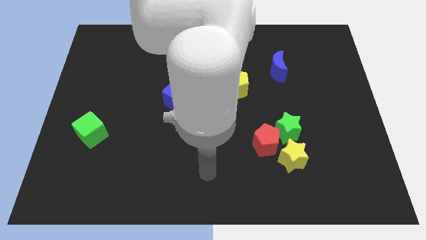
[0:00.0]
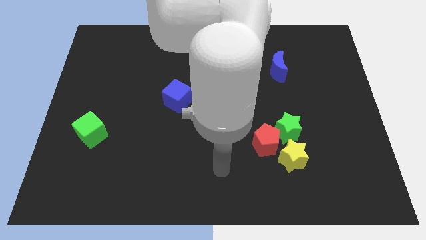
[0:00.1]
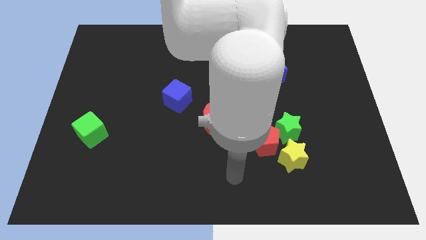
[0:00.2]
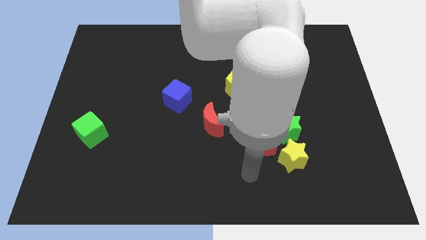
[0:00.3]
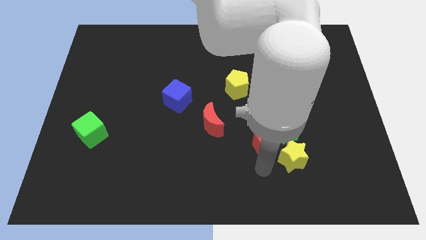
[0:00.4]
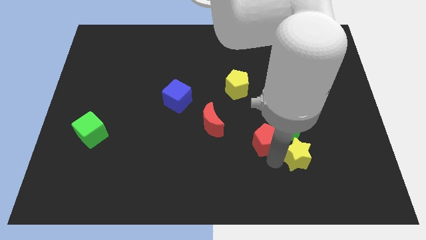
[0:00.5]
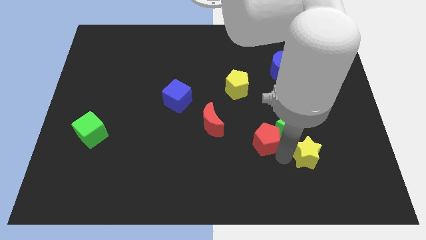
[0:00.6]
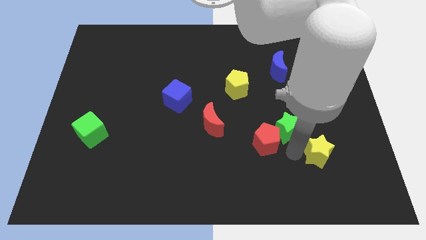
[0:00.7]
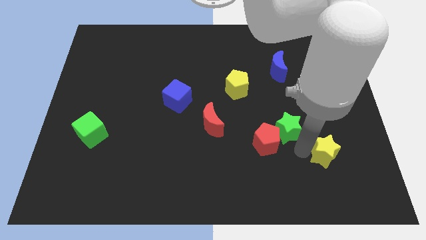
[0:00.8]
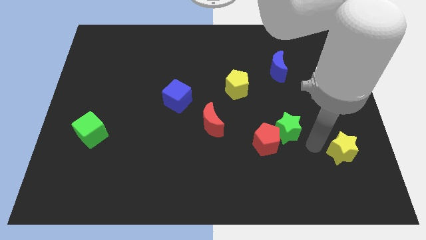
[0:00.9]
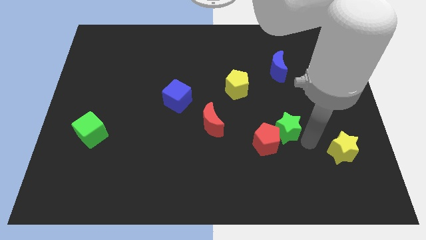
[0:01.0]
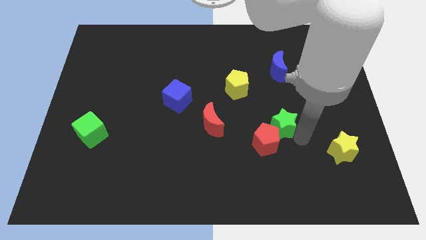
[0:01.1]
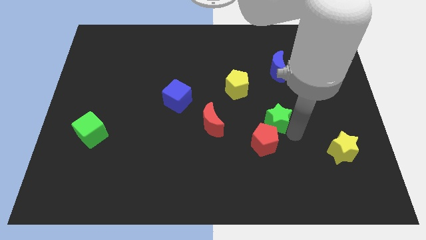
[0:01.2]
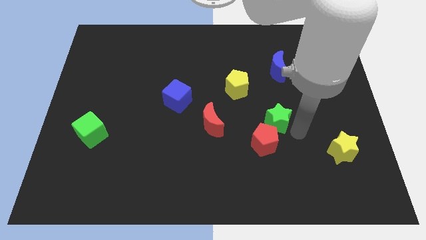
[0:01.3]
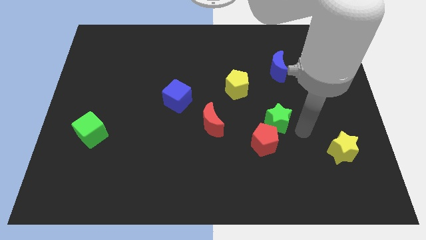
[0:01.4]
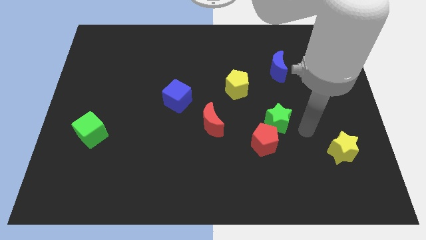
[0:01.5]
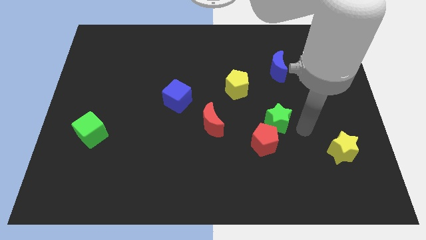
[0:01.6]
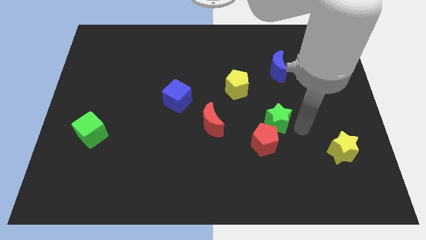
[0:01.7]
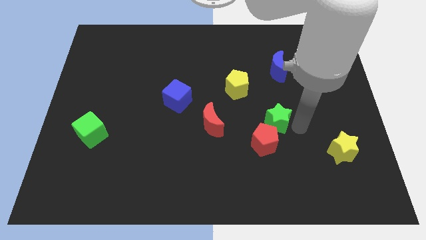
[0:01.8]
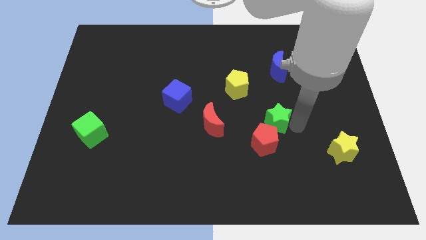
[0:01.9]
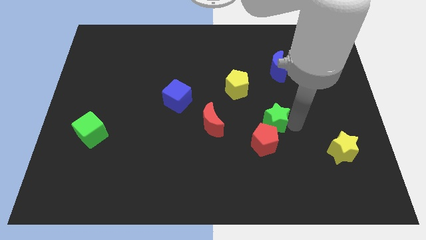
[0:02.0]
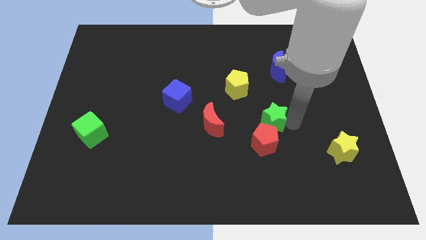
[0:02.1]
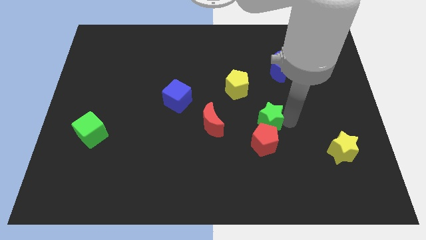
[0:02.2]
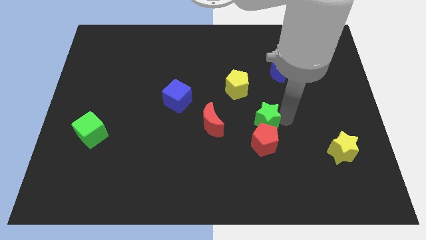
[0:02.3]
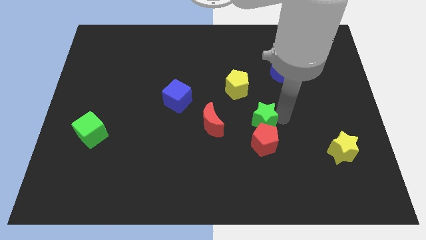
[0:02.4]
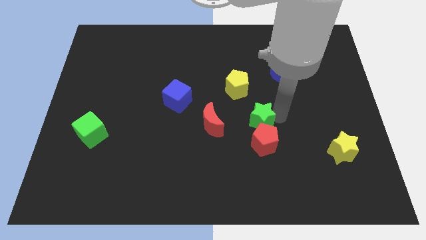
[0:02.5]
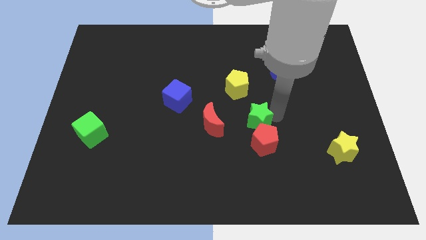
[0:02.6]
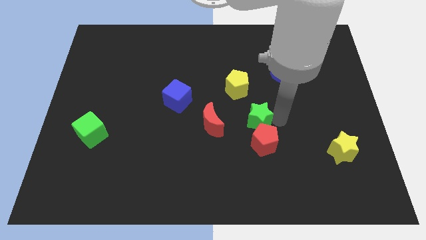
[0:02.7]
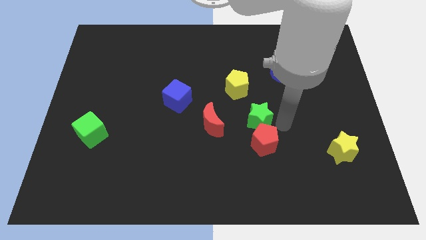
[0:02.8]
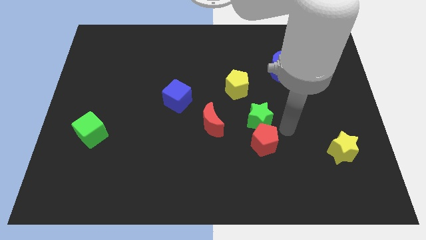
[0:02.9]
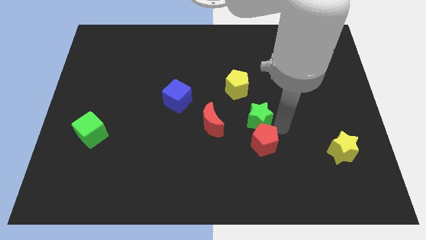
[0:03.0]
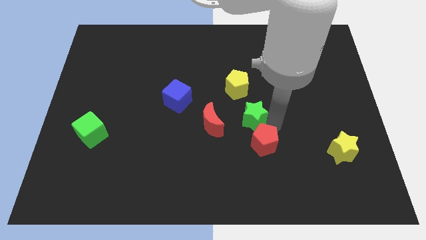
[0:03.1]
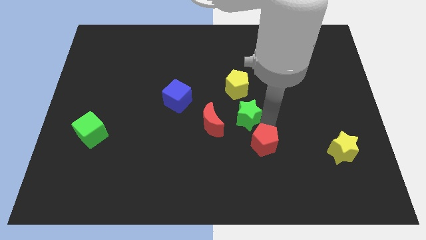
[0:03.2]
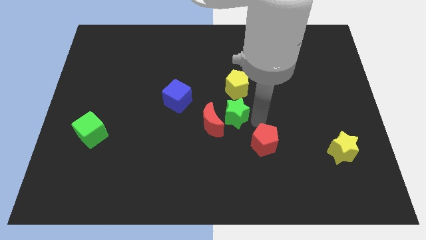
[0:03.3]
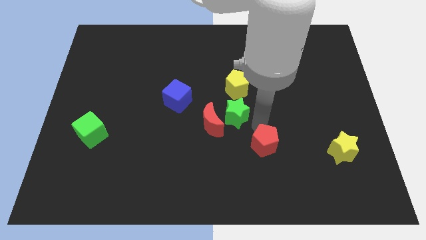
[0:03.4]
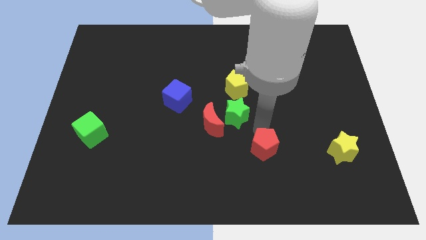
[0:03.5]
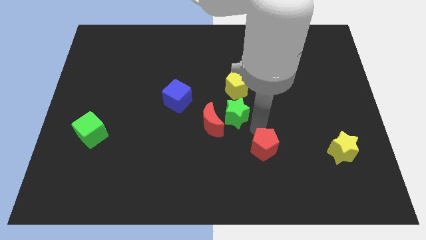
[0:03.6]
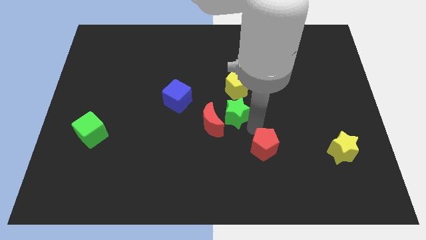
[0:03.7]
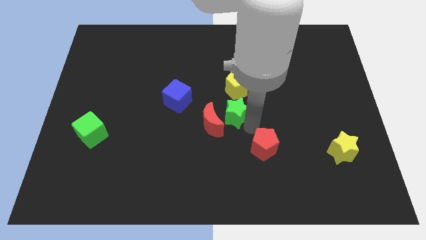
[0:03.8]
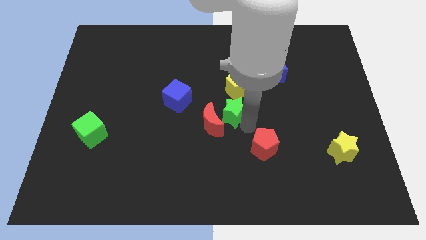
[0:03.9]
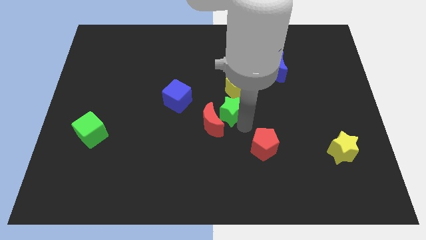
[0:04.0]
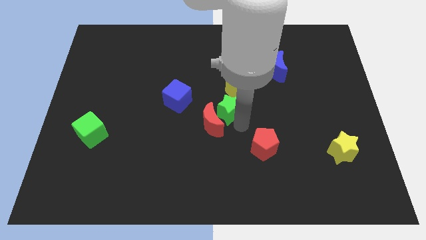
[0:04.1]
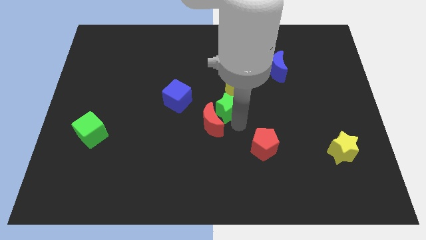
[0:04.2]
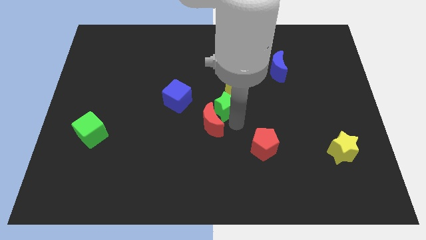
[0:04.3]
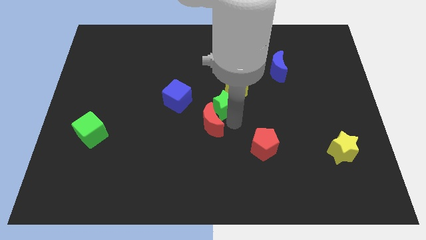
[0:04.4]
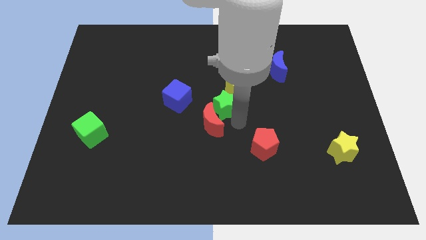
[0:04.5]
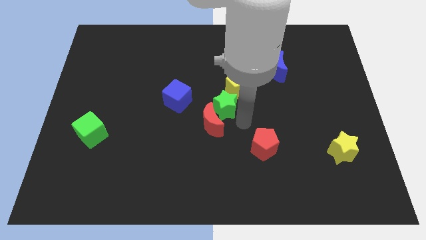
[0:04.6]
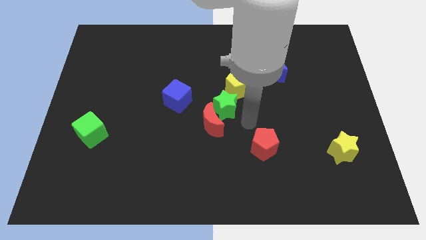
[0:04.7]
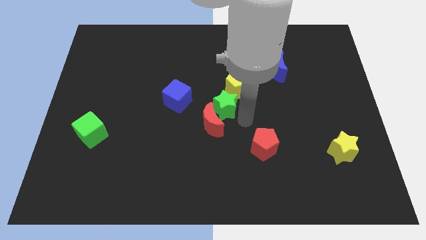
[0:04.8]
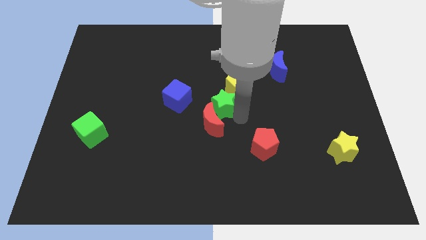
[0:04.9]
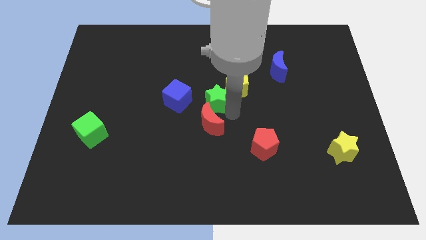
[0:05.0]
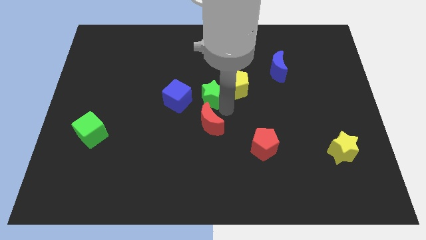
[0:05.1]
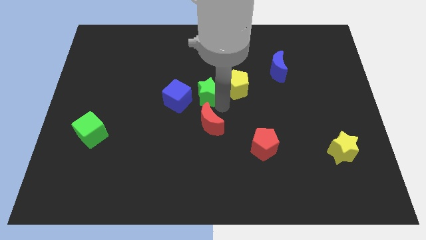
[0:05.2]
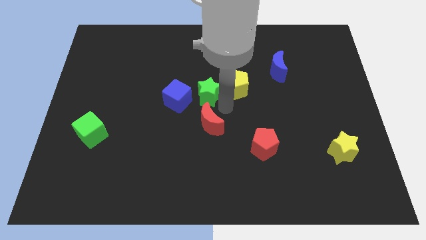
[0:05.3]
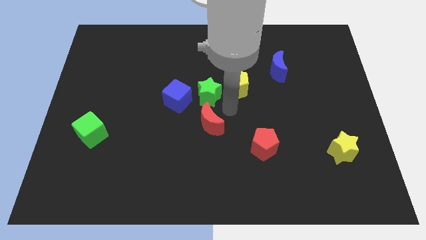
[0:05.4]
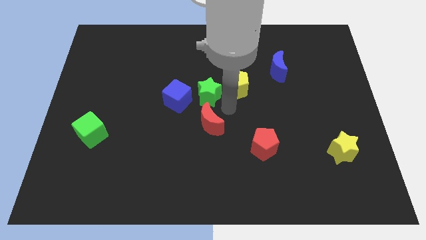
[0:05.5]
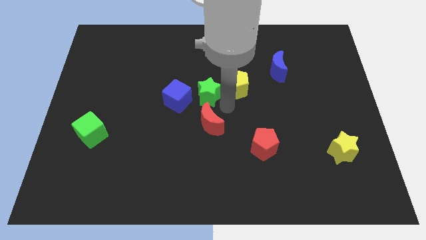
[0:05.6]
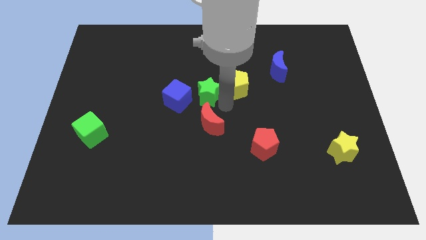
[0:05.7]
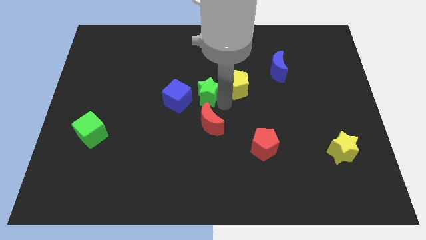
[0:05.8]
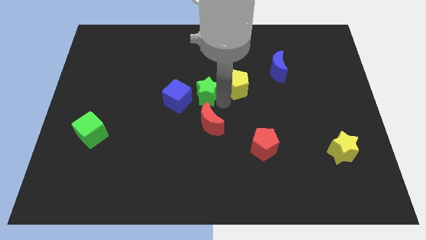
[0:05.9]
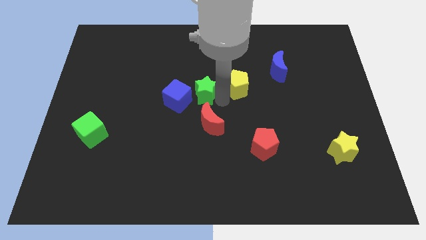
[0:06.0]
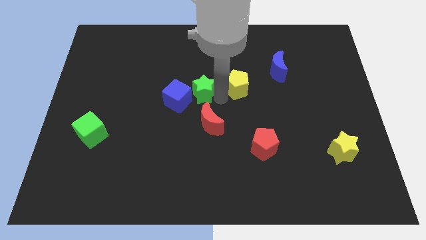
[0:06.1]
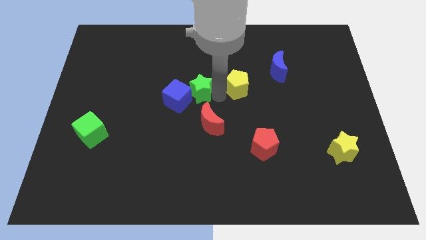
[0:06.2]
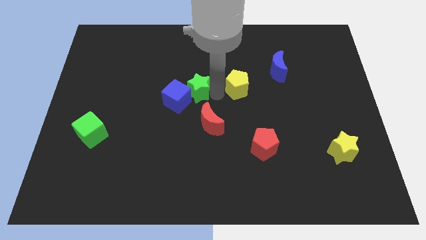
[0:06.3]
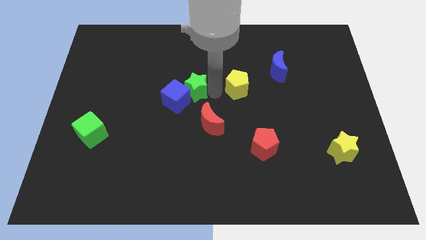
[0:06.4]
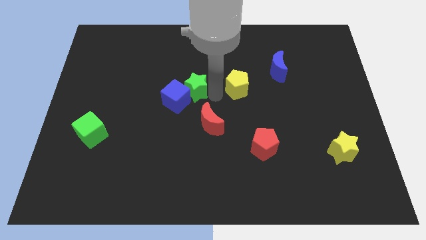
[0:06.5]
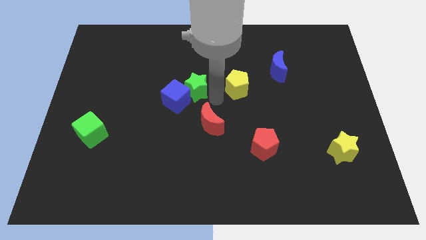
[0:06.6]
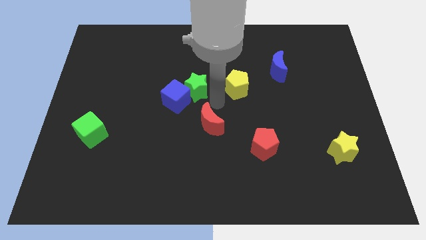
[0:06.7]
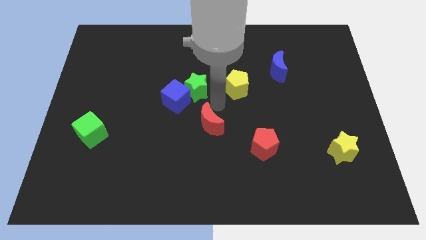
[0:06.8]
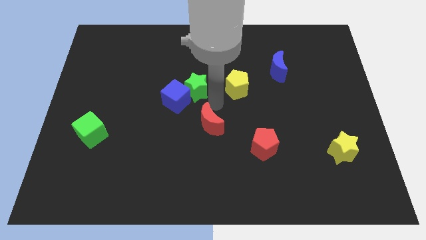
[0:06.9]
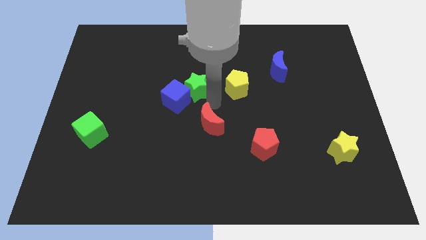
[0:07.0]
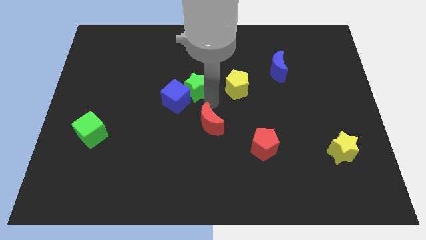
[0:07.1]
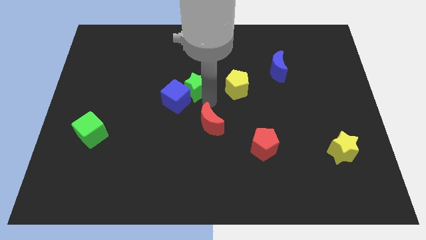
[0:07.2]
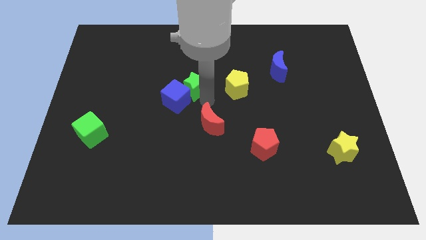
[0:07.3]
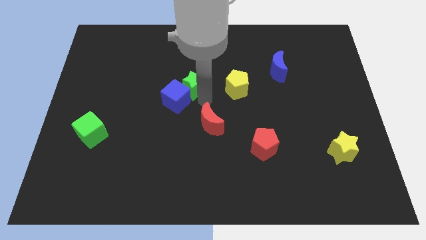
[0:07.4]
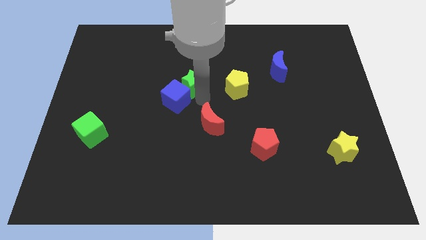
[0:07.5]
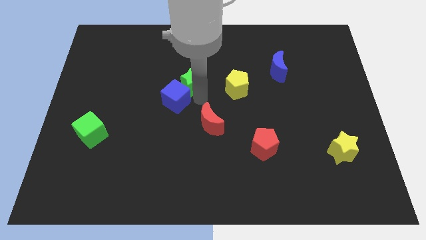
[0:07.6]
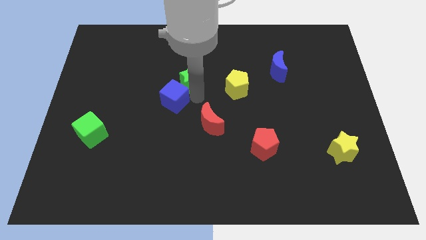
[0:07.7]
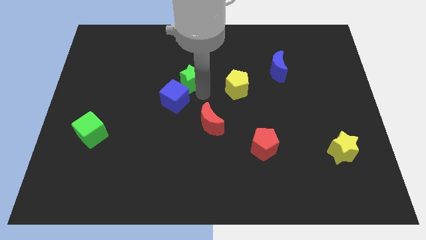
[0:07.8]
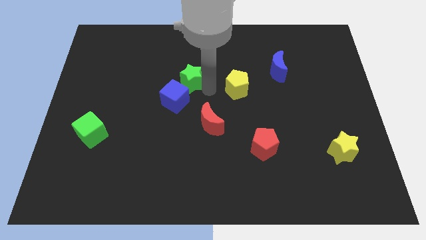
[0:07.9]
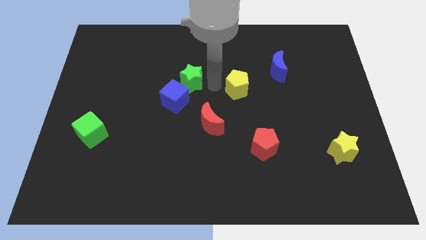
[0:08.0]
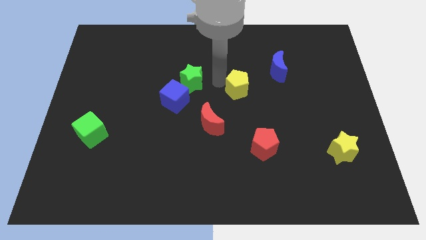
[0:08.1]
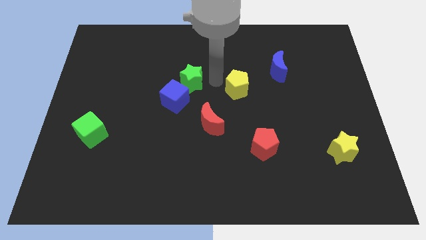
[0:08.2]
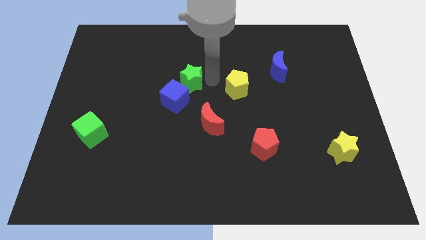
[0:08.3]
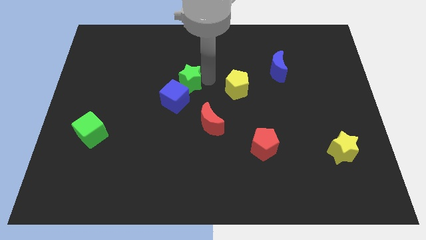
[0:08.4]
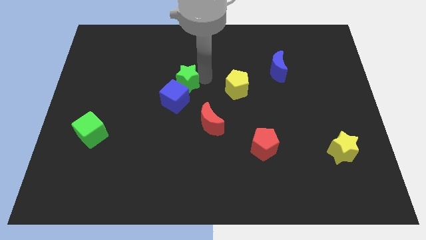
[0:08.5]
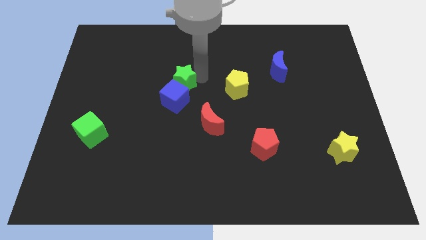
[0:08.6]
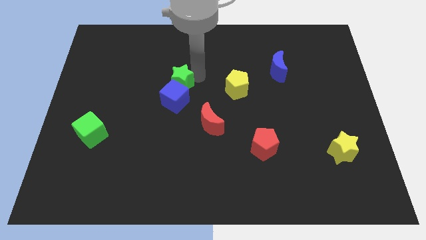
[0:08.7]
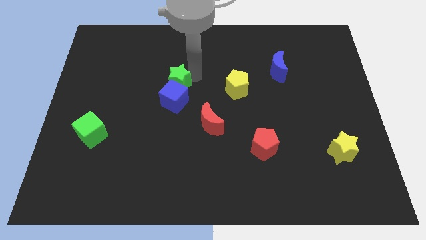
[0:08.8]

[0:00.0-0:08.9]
move the green star diagonally up and to the left of the blue cube
